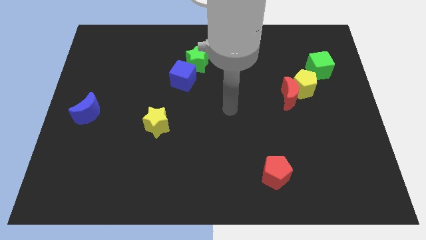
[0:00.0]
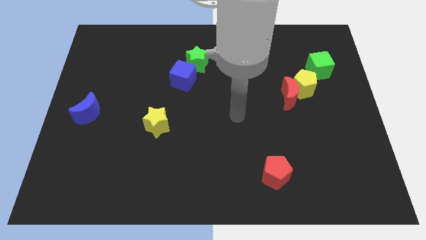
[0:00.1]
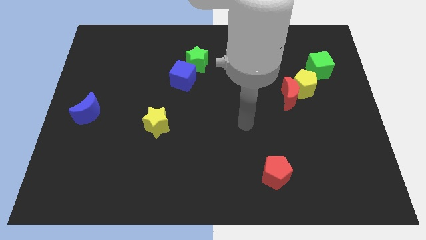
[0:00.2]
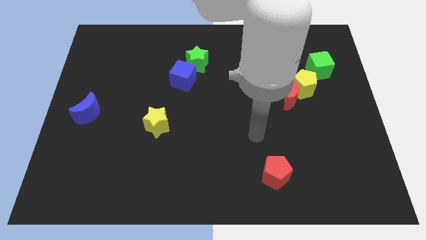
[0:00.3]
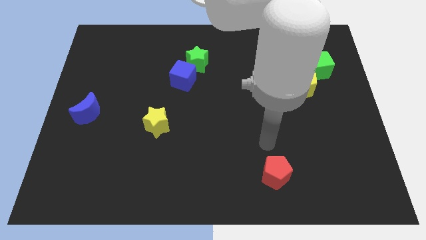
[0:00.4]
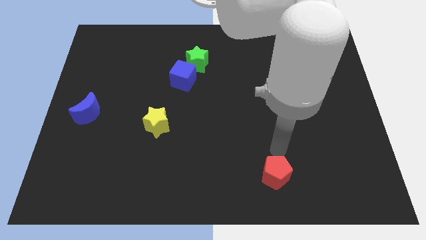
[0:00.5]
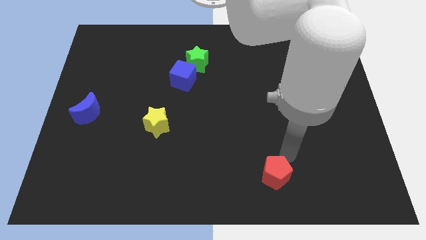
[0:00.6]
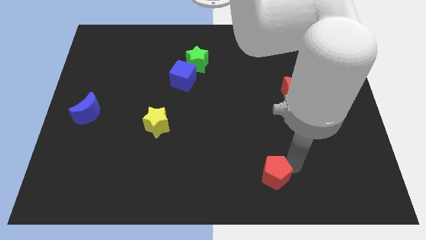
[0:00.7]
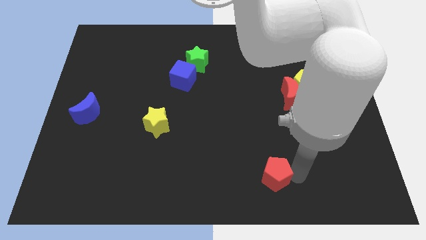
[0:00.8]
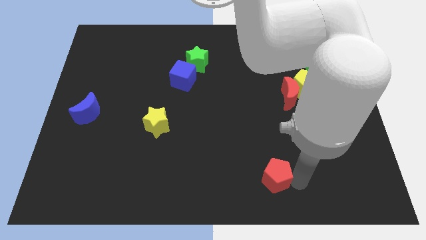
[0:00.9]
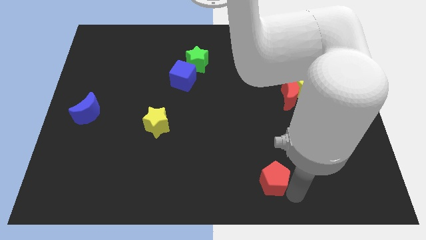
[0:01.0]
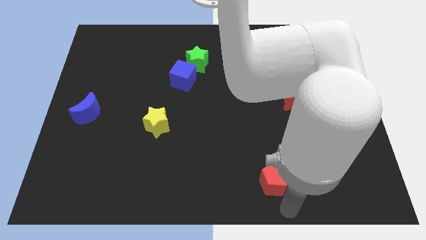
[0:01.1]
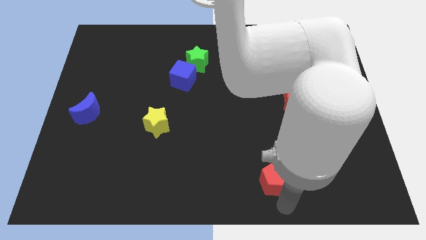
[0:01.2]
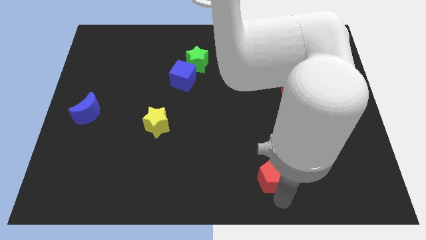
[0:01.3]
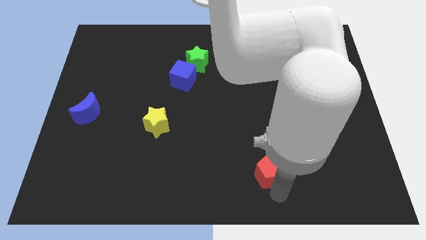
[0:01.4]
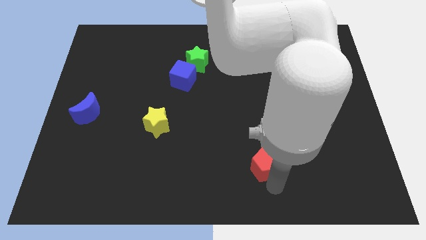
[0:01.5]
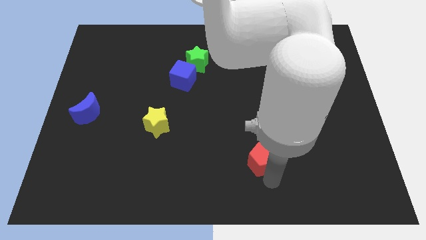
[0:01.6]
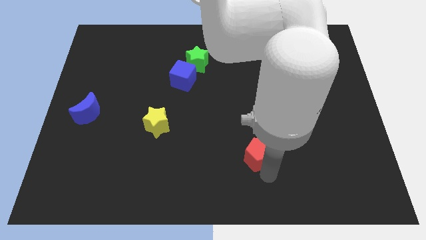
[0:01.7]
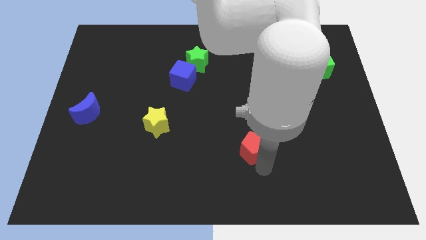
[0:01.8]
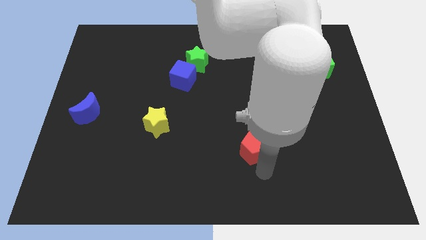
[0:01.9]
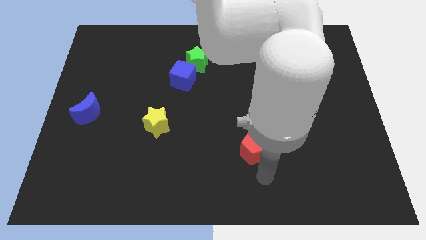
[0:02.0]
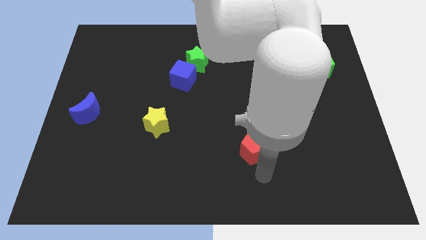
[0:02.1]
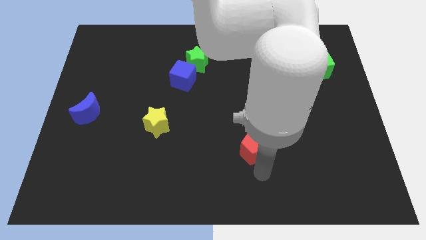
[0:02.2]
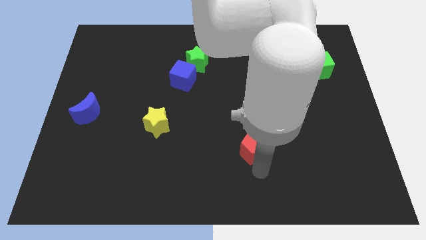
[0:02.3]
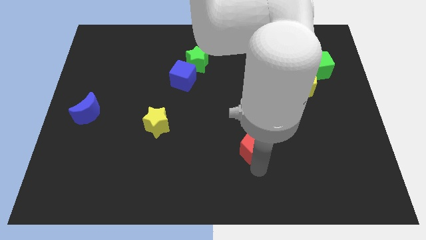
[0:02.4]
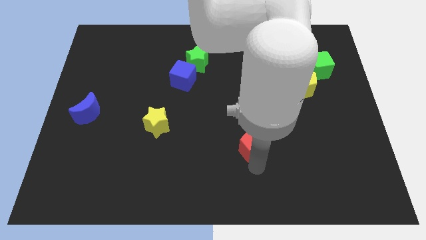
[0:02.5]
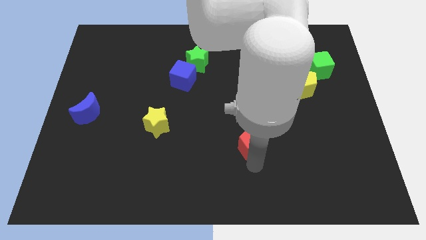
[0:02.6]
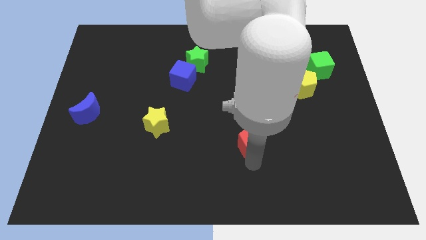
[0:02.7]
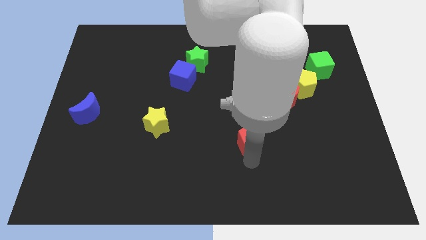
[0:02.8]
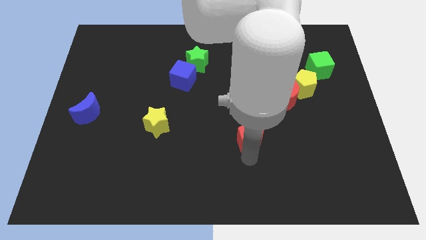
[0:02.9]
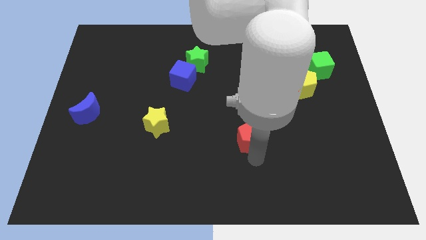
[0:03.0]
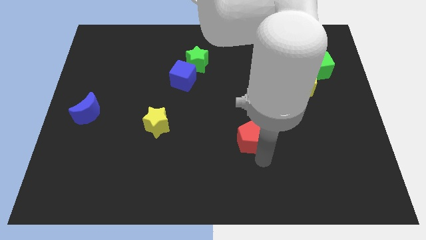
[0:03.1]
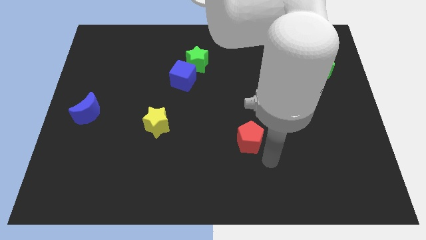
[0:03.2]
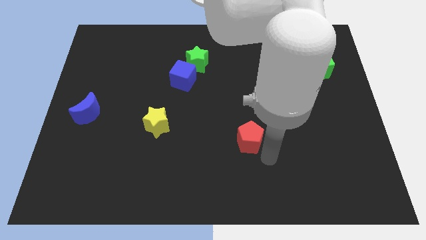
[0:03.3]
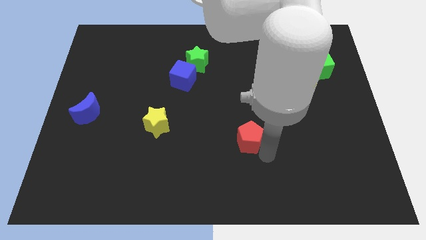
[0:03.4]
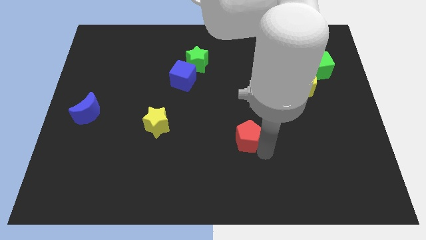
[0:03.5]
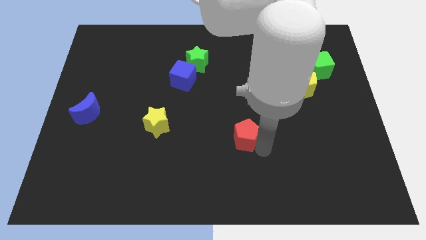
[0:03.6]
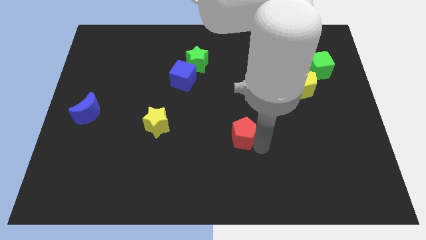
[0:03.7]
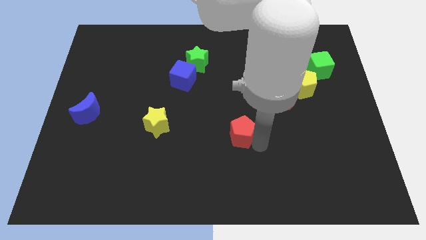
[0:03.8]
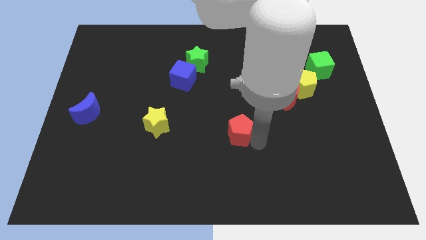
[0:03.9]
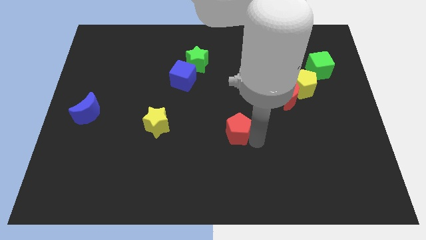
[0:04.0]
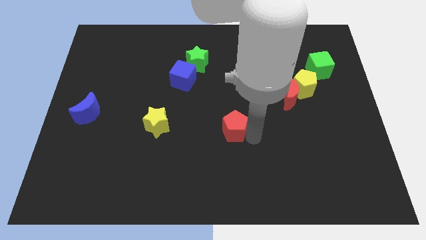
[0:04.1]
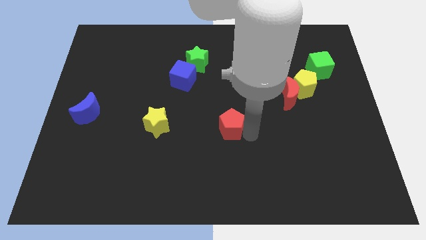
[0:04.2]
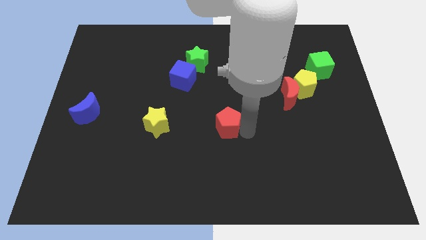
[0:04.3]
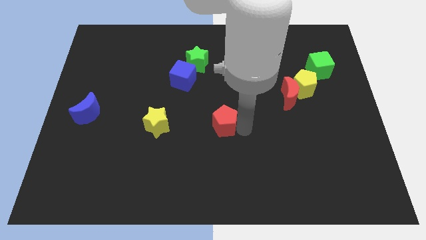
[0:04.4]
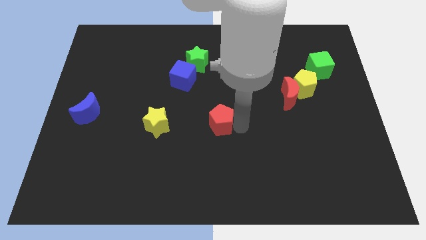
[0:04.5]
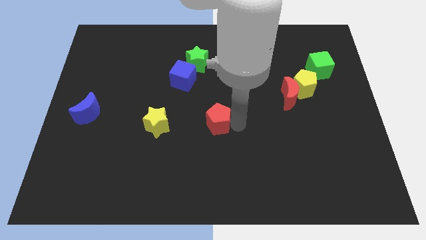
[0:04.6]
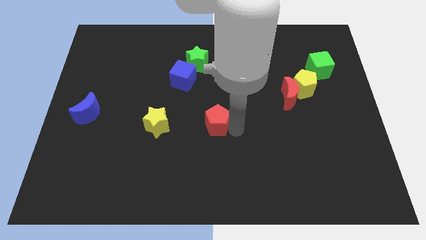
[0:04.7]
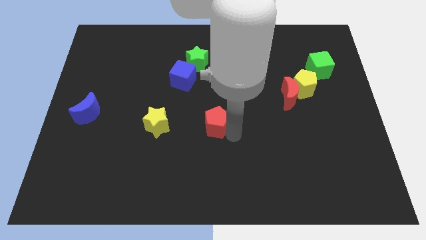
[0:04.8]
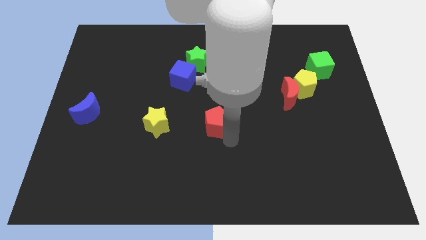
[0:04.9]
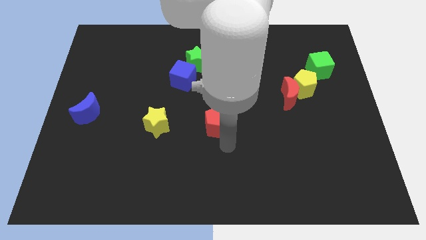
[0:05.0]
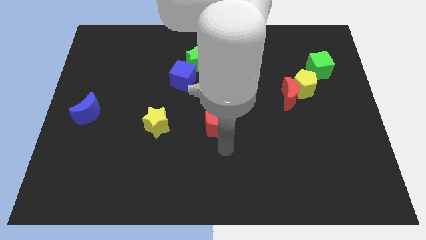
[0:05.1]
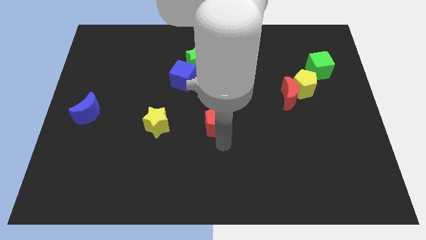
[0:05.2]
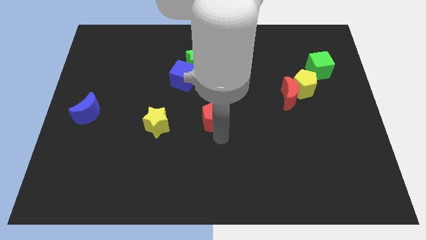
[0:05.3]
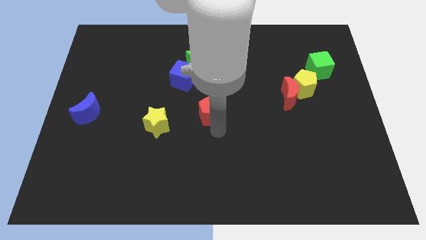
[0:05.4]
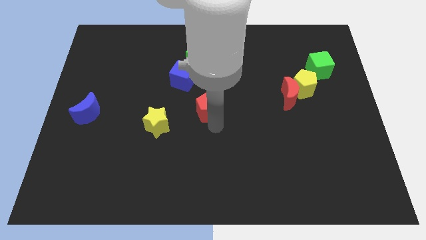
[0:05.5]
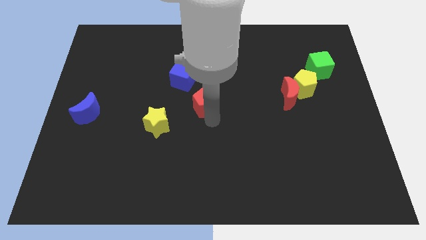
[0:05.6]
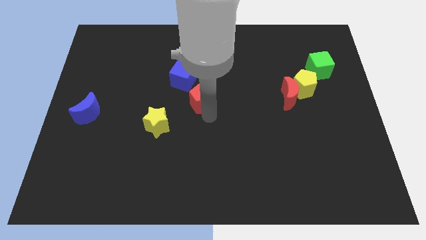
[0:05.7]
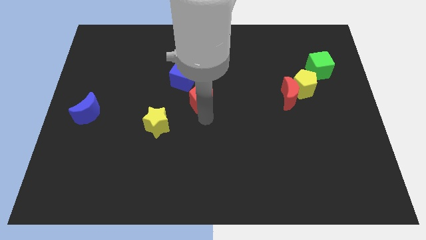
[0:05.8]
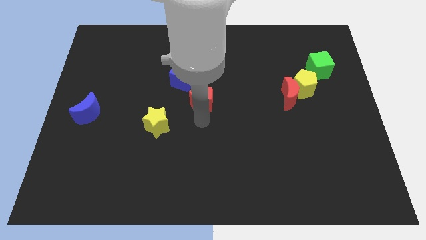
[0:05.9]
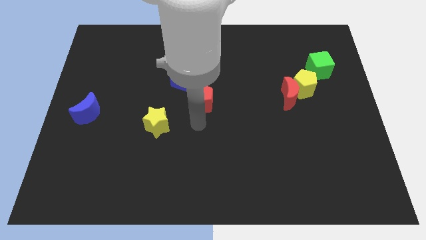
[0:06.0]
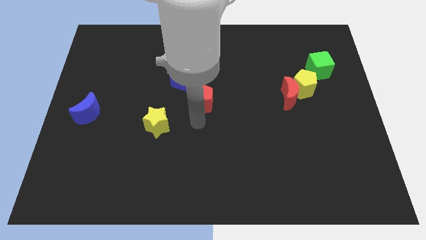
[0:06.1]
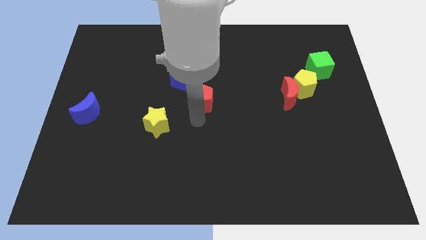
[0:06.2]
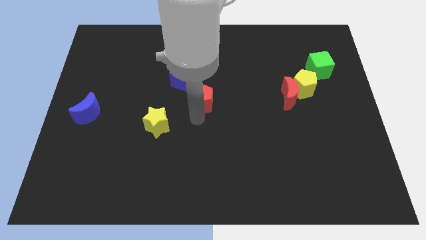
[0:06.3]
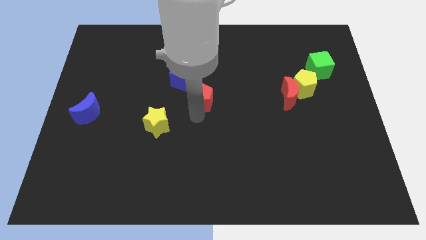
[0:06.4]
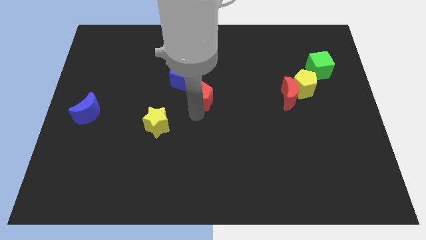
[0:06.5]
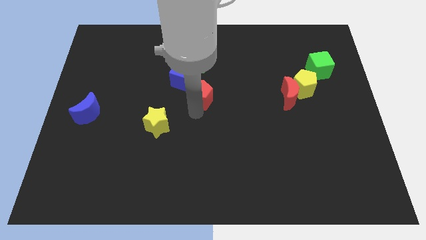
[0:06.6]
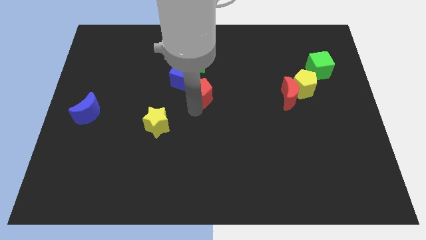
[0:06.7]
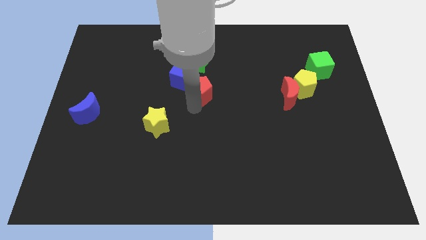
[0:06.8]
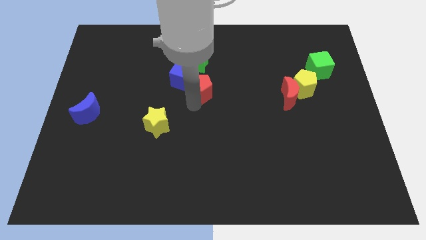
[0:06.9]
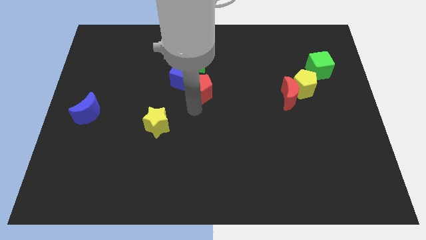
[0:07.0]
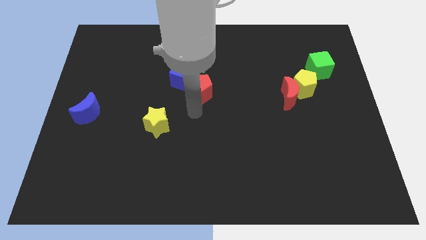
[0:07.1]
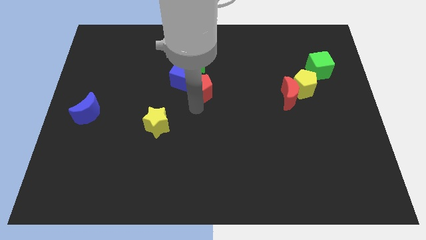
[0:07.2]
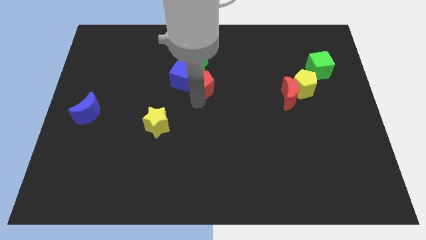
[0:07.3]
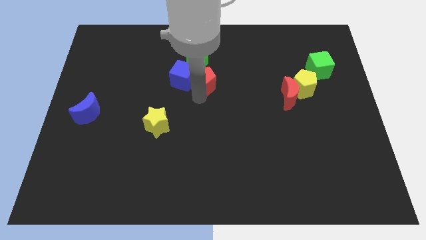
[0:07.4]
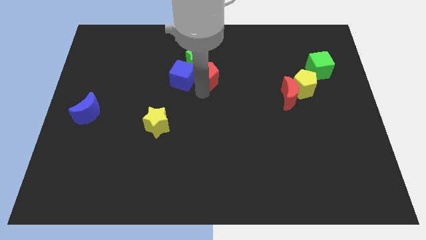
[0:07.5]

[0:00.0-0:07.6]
push the red pentagon towards the green star
